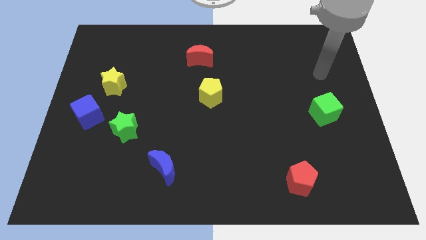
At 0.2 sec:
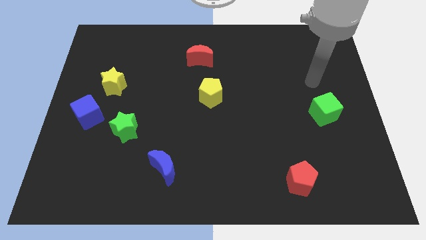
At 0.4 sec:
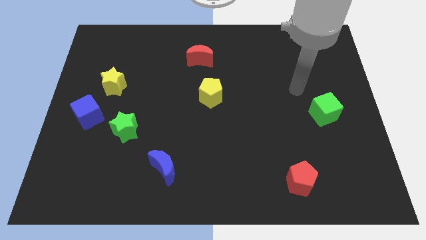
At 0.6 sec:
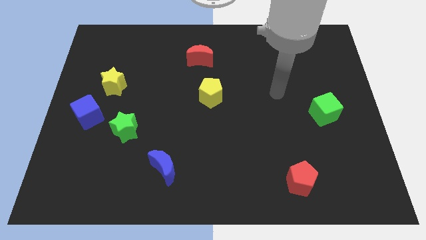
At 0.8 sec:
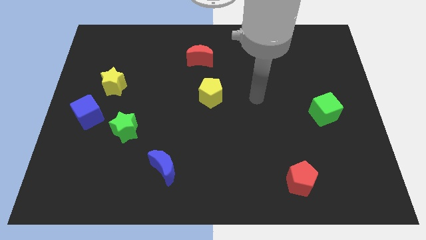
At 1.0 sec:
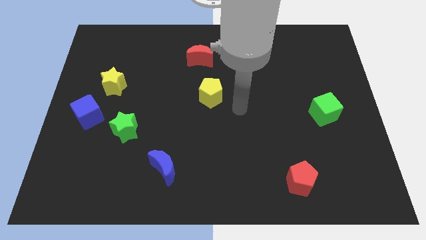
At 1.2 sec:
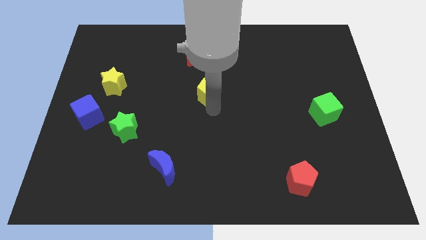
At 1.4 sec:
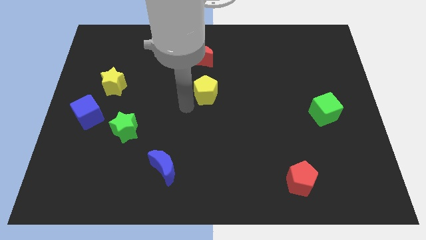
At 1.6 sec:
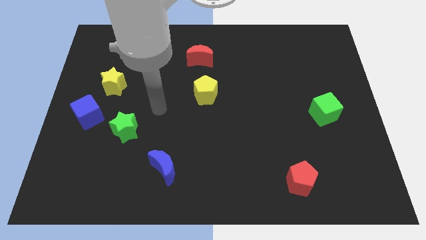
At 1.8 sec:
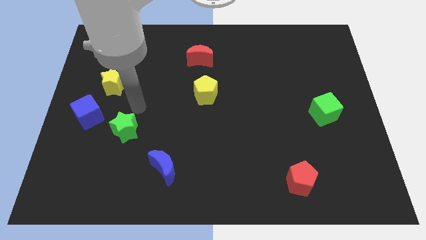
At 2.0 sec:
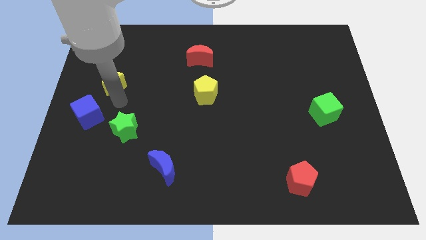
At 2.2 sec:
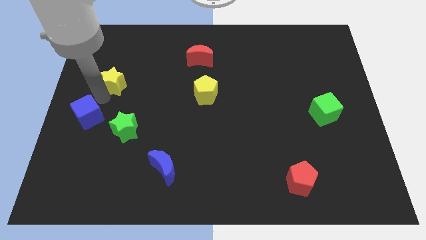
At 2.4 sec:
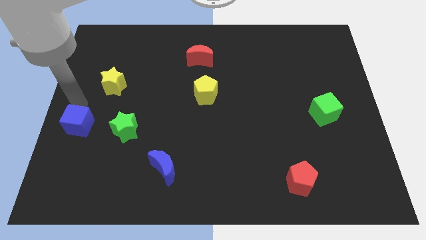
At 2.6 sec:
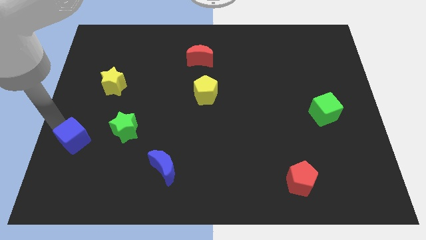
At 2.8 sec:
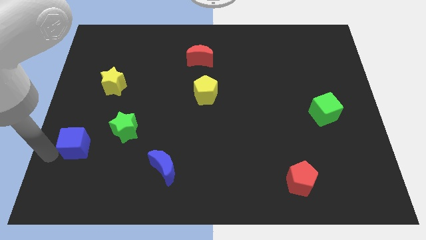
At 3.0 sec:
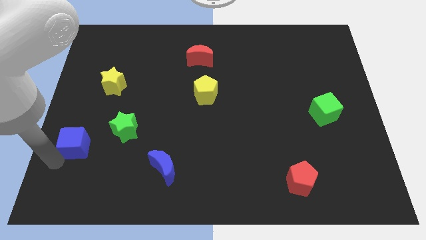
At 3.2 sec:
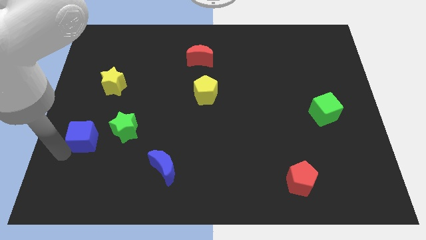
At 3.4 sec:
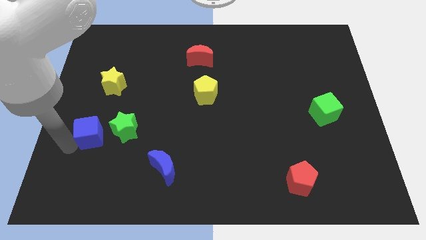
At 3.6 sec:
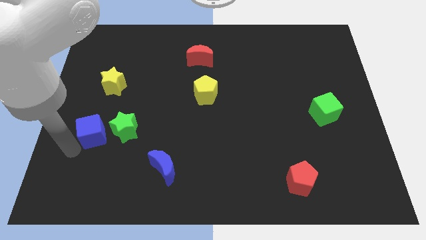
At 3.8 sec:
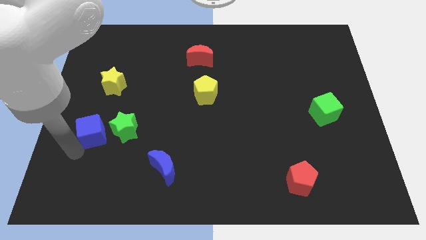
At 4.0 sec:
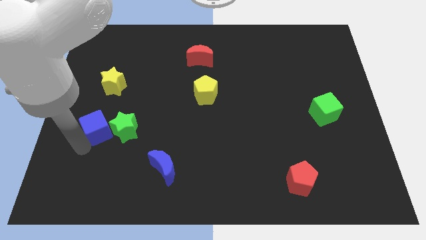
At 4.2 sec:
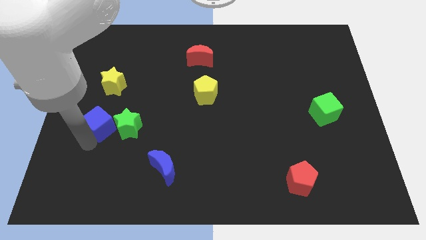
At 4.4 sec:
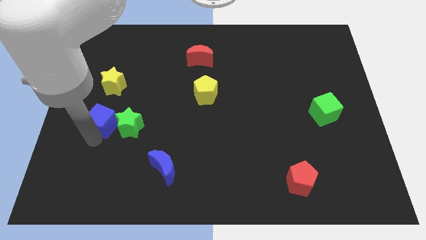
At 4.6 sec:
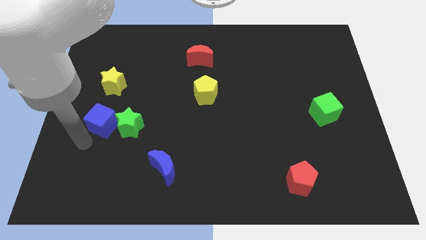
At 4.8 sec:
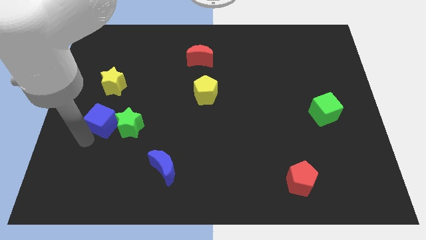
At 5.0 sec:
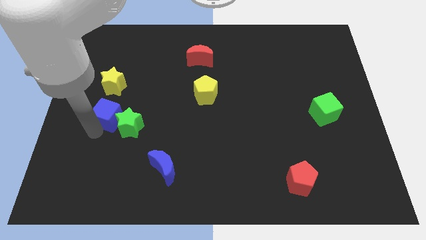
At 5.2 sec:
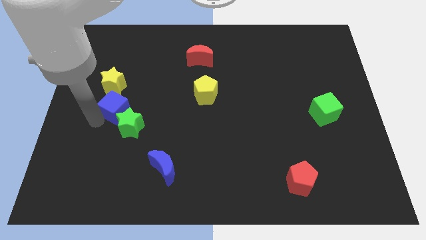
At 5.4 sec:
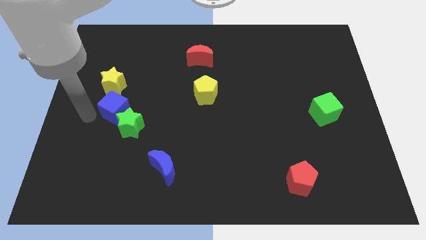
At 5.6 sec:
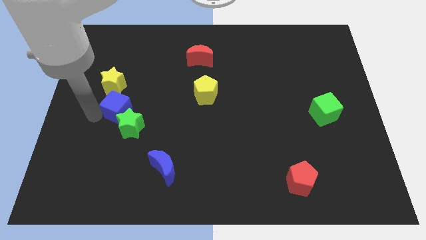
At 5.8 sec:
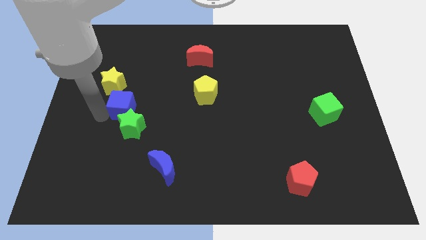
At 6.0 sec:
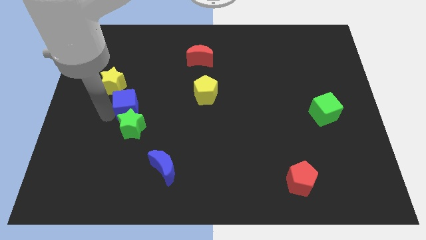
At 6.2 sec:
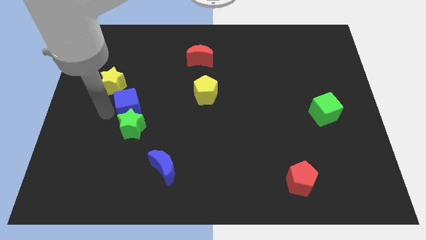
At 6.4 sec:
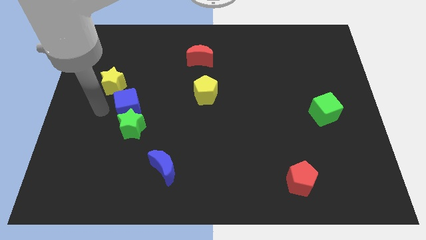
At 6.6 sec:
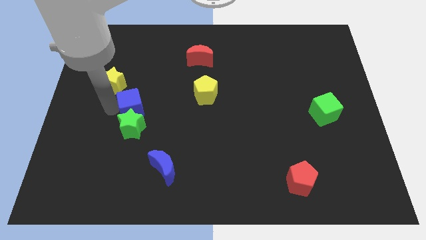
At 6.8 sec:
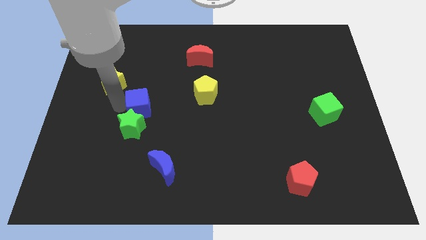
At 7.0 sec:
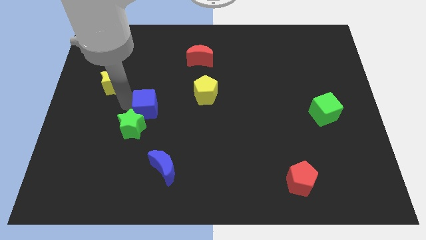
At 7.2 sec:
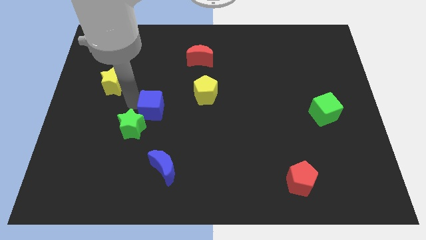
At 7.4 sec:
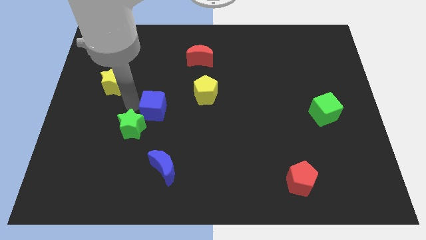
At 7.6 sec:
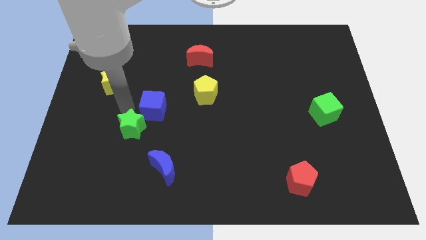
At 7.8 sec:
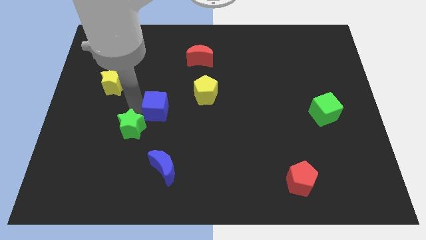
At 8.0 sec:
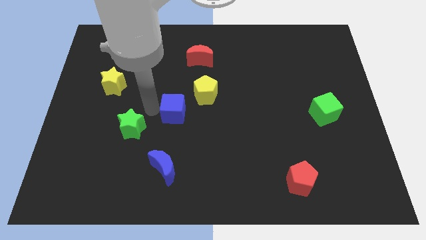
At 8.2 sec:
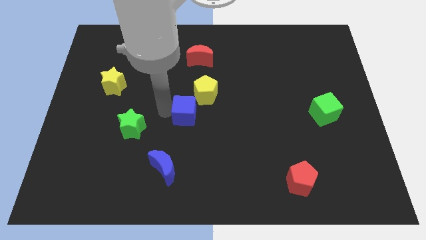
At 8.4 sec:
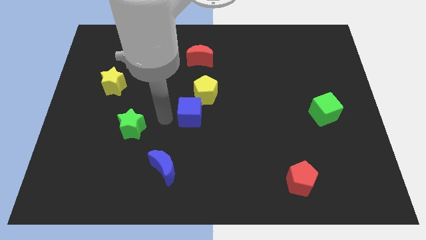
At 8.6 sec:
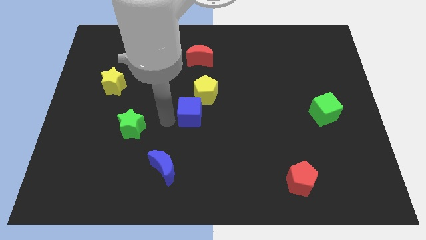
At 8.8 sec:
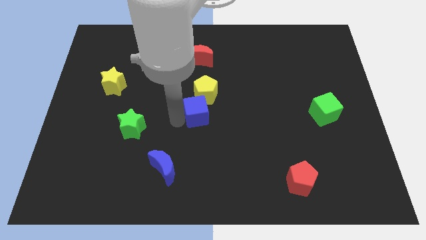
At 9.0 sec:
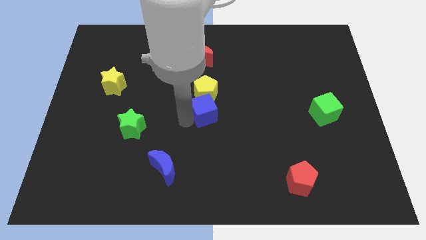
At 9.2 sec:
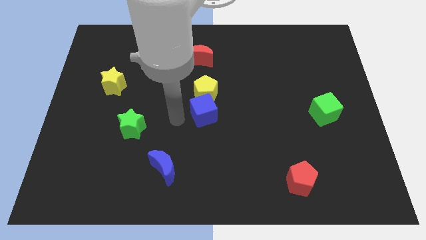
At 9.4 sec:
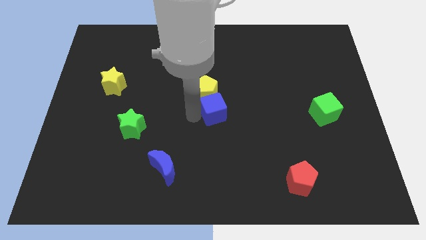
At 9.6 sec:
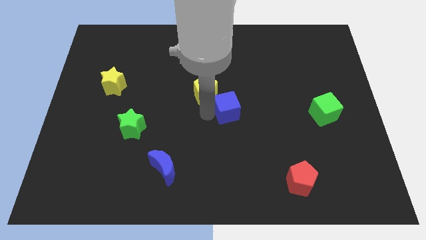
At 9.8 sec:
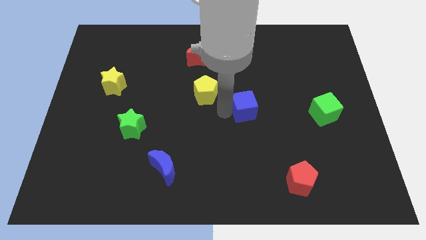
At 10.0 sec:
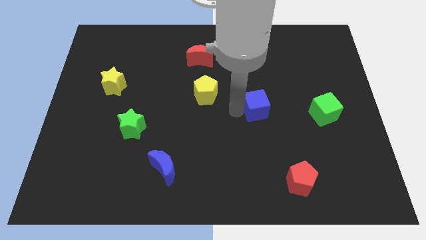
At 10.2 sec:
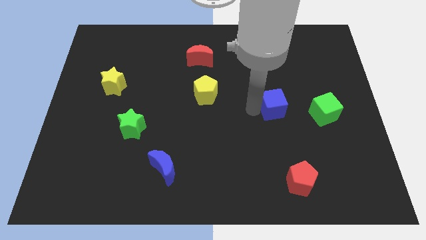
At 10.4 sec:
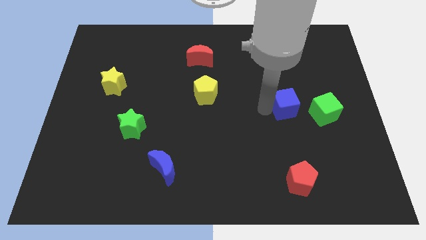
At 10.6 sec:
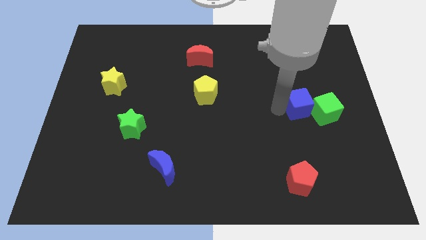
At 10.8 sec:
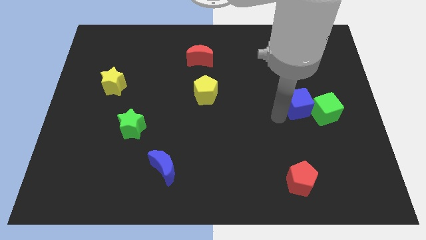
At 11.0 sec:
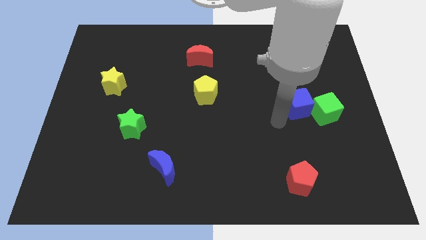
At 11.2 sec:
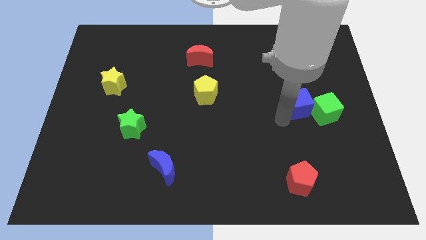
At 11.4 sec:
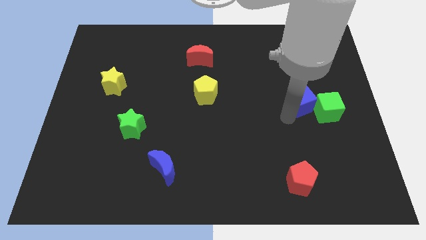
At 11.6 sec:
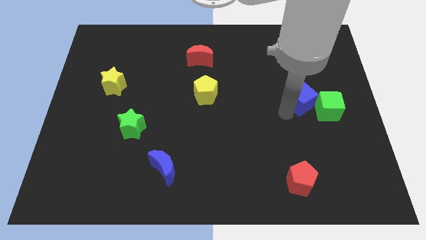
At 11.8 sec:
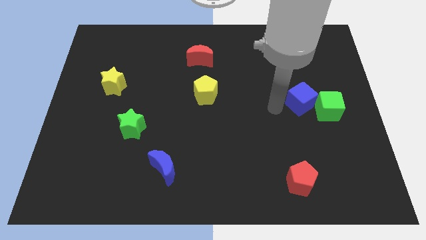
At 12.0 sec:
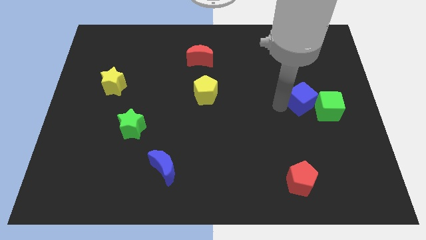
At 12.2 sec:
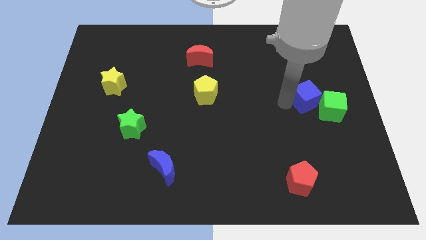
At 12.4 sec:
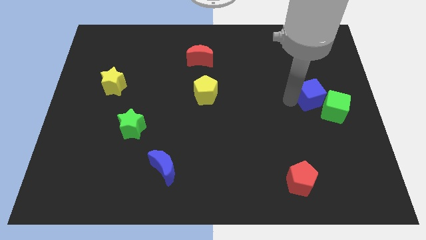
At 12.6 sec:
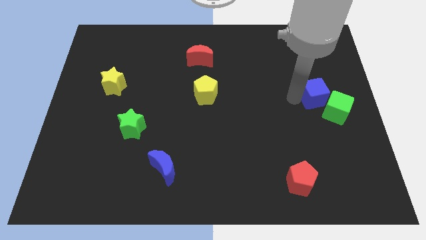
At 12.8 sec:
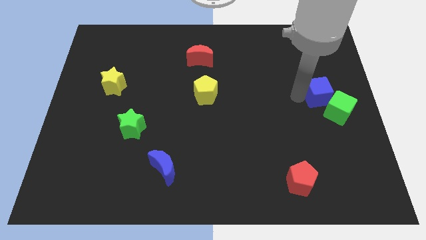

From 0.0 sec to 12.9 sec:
put the blue cube to the right side of the board
